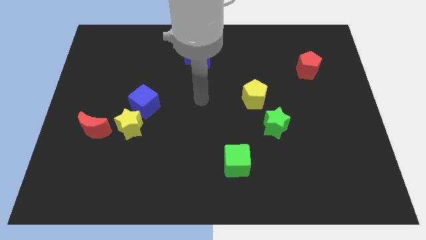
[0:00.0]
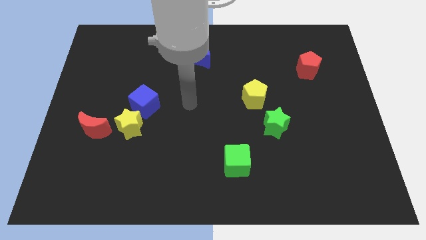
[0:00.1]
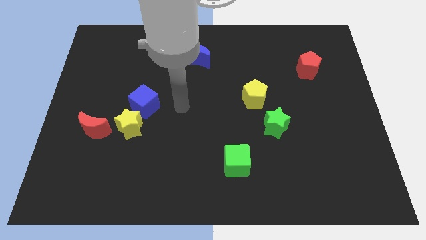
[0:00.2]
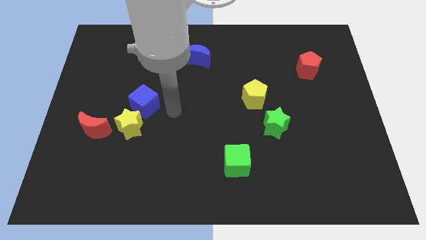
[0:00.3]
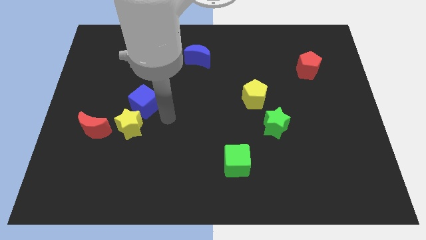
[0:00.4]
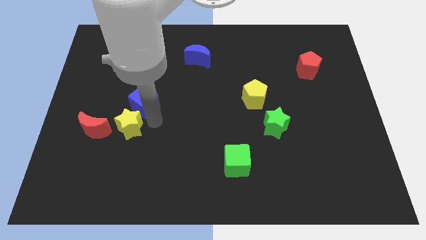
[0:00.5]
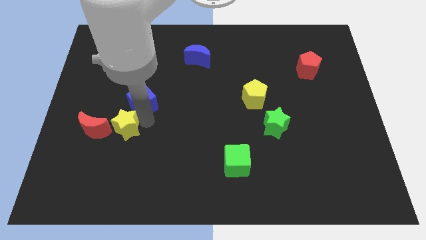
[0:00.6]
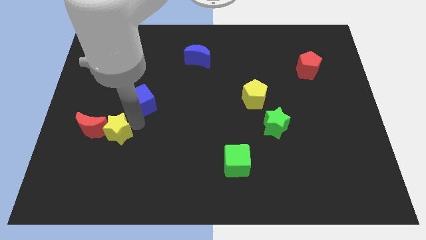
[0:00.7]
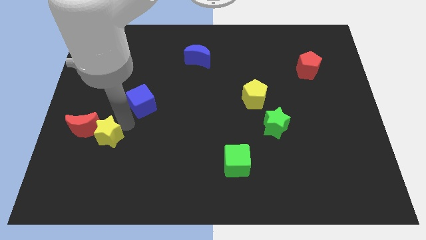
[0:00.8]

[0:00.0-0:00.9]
pull the blue cube apart from the yellow star

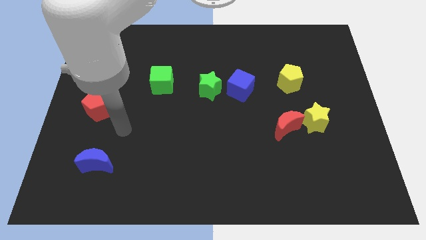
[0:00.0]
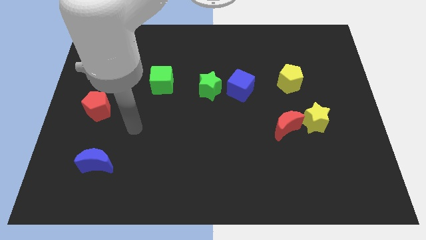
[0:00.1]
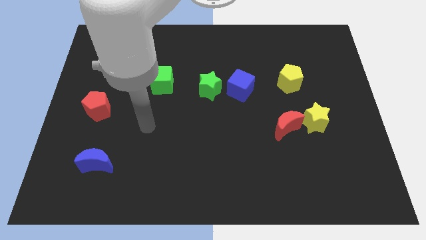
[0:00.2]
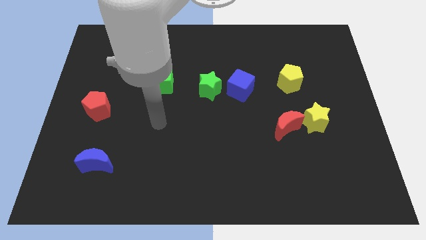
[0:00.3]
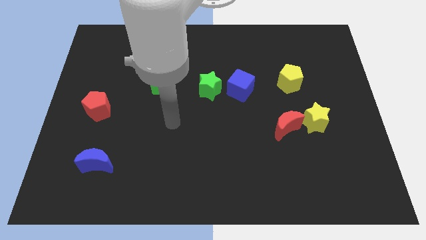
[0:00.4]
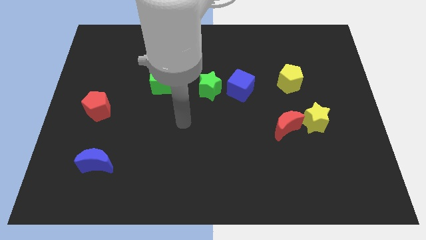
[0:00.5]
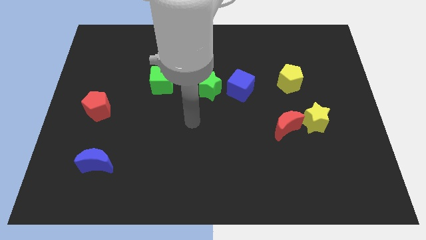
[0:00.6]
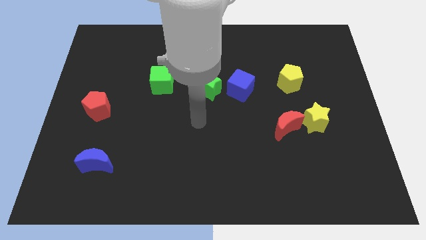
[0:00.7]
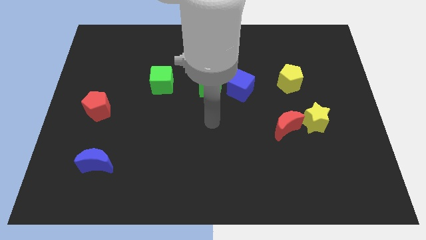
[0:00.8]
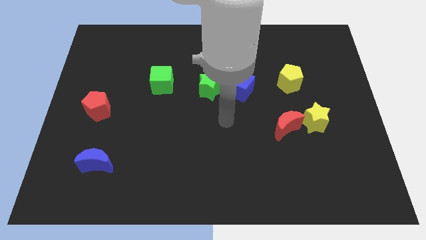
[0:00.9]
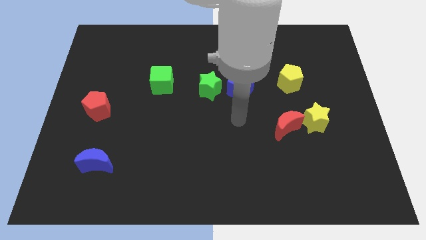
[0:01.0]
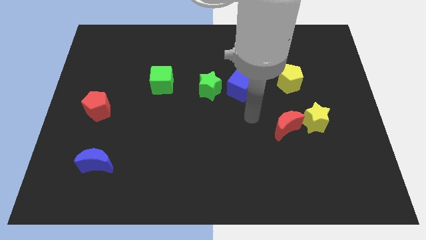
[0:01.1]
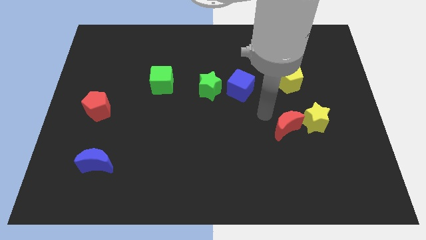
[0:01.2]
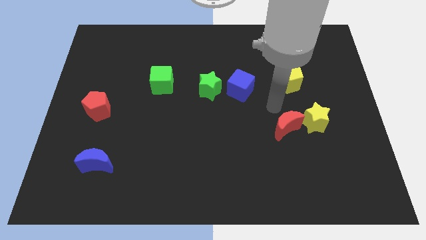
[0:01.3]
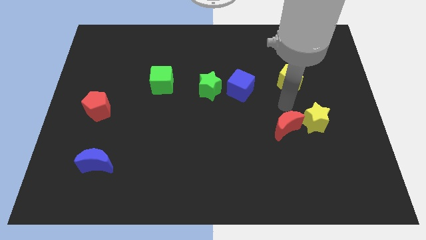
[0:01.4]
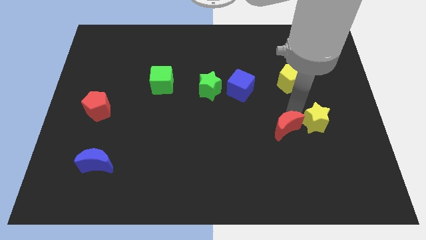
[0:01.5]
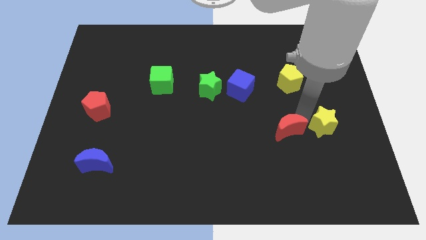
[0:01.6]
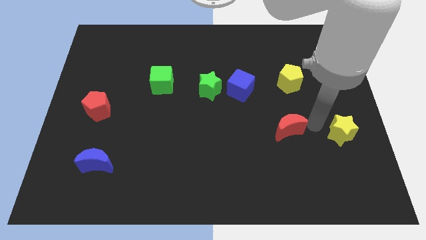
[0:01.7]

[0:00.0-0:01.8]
pull the red moon apart from the yellow star

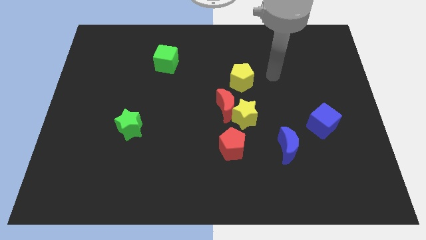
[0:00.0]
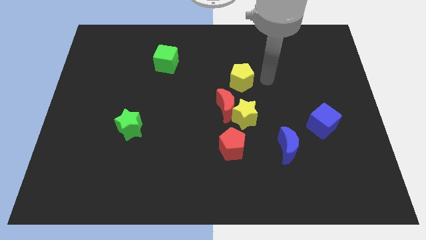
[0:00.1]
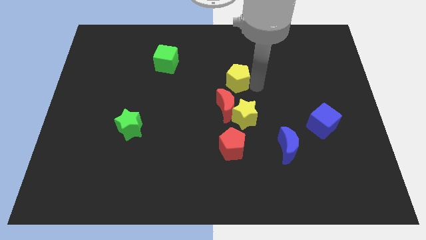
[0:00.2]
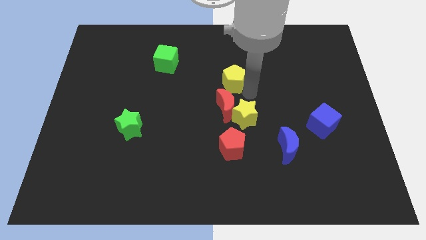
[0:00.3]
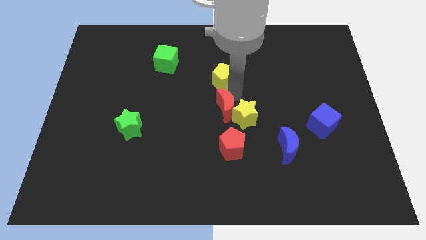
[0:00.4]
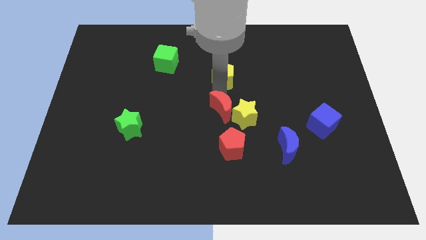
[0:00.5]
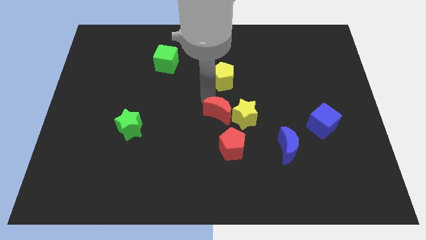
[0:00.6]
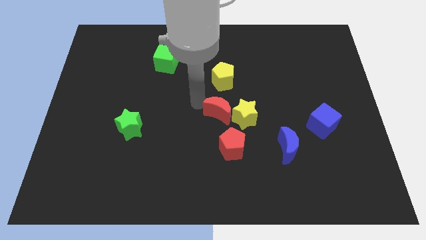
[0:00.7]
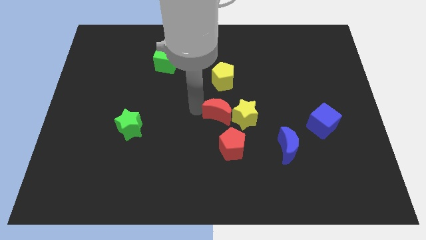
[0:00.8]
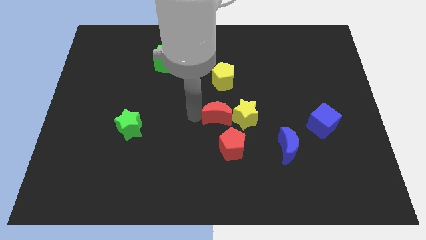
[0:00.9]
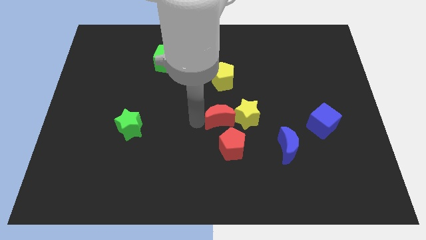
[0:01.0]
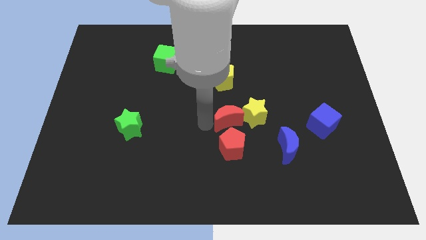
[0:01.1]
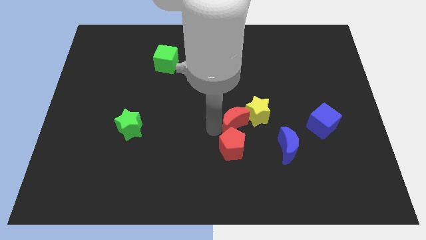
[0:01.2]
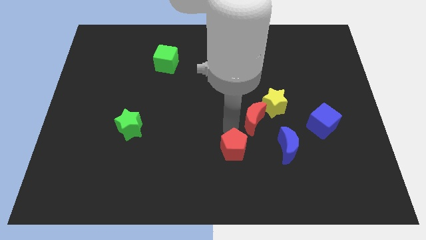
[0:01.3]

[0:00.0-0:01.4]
separate the yellow star from the red moon and red pentagon

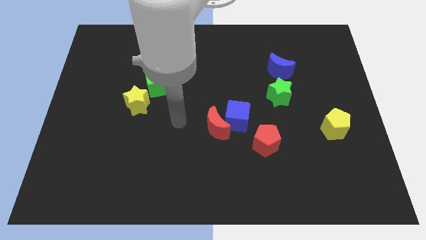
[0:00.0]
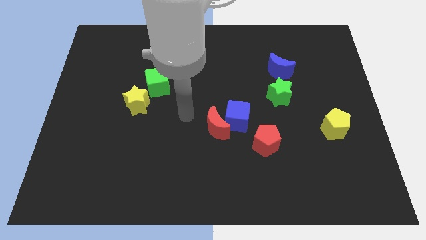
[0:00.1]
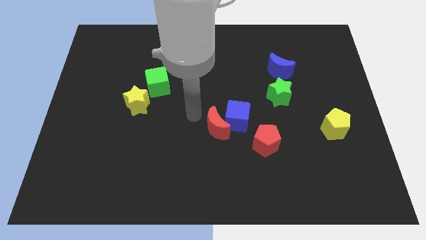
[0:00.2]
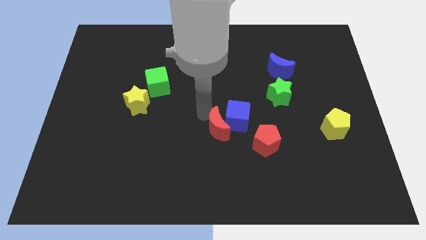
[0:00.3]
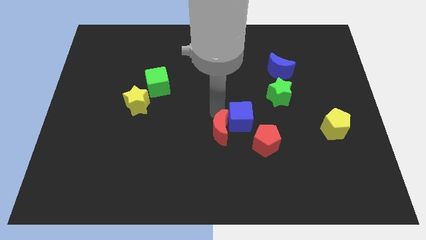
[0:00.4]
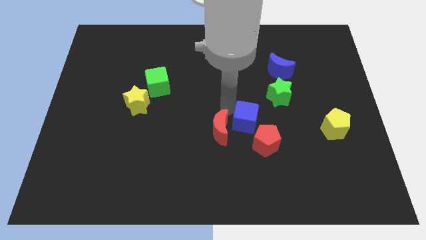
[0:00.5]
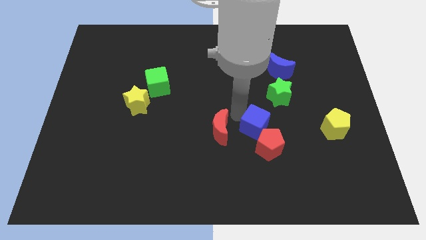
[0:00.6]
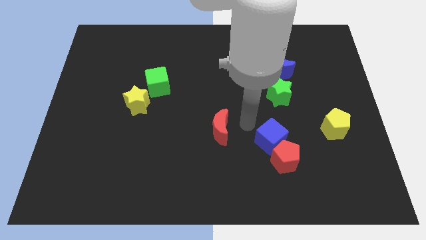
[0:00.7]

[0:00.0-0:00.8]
separate the red moon from the blue cube

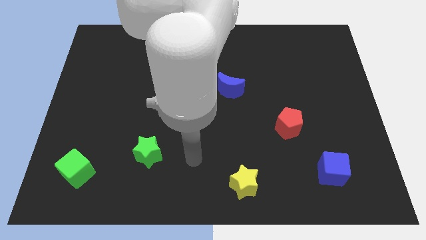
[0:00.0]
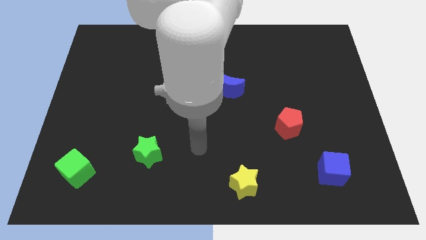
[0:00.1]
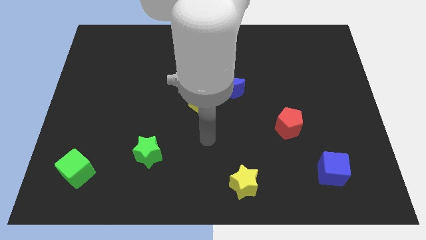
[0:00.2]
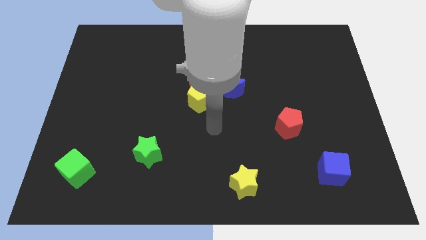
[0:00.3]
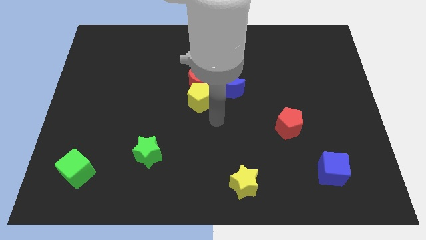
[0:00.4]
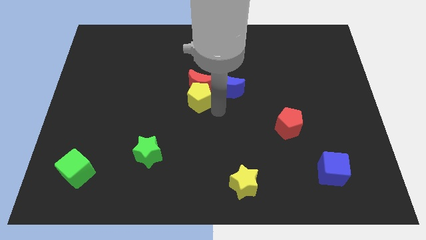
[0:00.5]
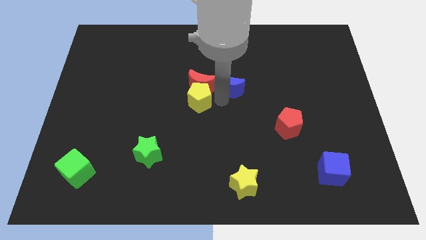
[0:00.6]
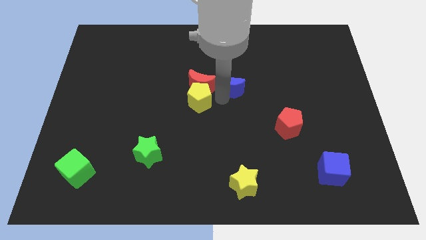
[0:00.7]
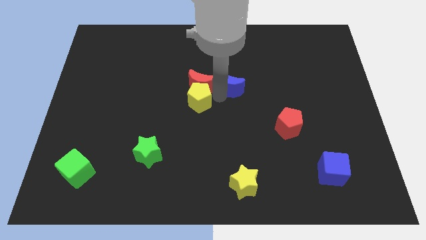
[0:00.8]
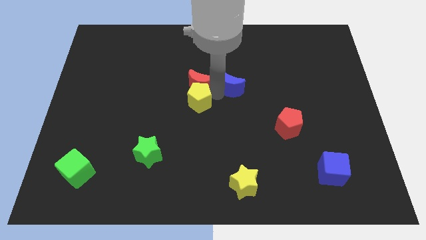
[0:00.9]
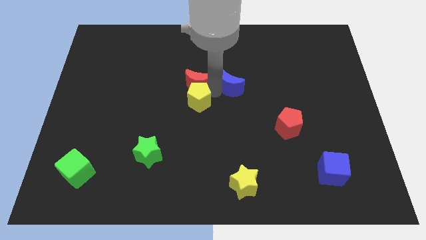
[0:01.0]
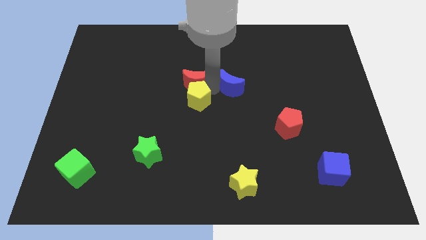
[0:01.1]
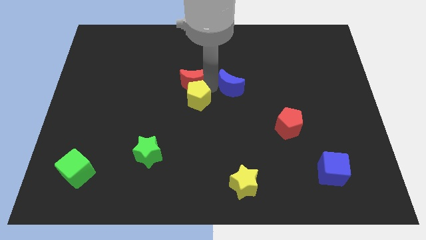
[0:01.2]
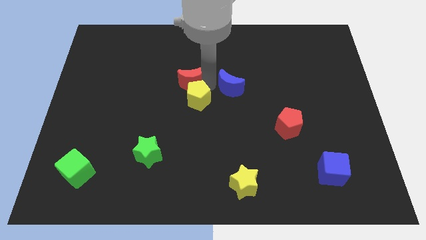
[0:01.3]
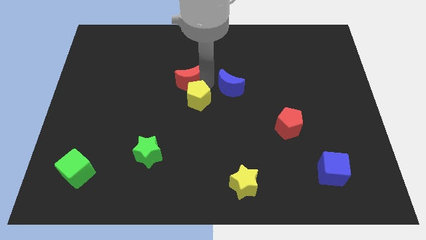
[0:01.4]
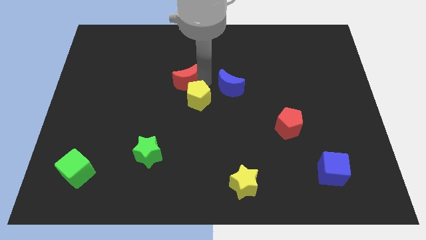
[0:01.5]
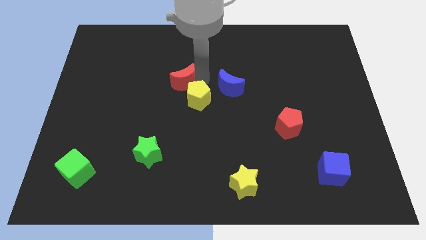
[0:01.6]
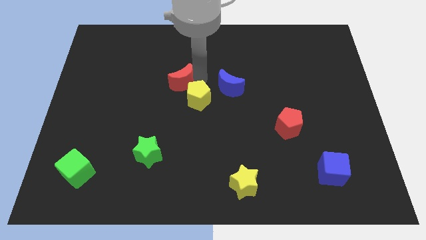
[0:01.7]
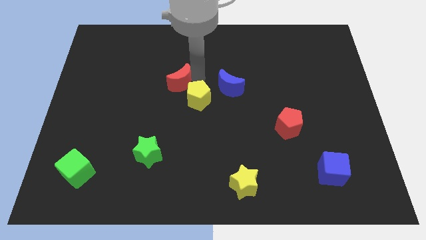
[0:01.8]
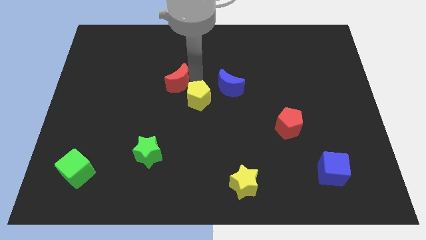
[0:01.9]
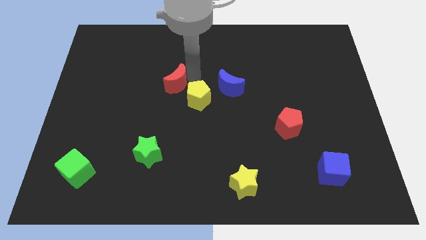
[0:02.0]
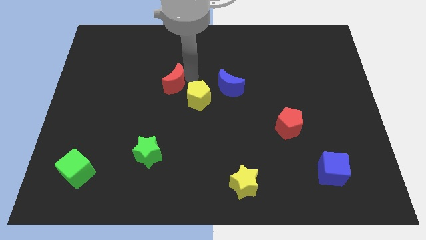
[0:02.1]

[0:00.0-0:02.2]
move the red moon away from the yellow pentagon and blue moon

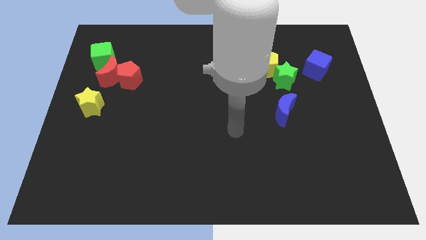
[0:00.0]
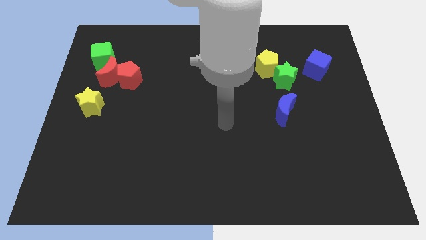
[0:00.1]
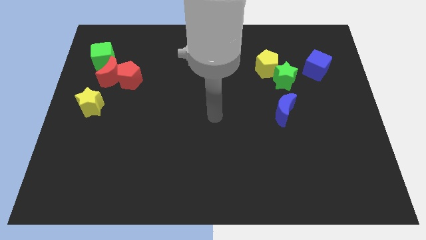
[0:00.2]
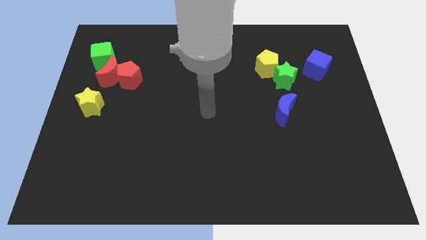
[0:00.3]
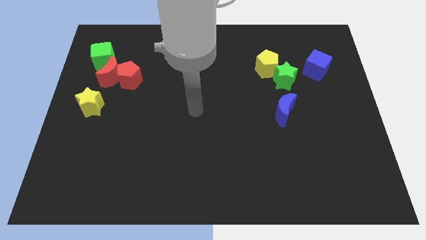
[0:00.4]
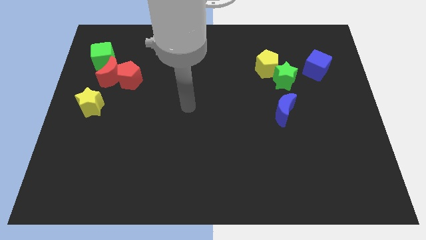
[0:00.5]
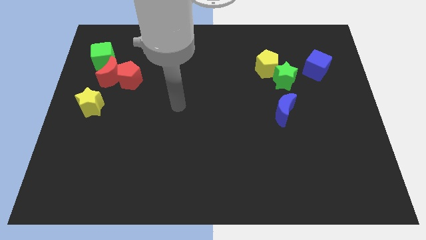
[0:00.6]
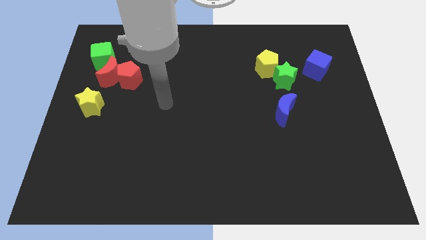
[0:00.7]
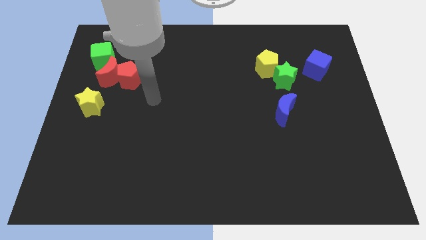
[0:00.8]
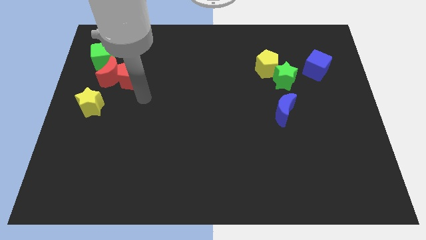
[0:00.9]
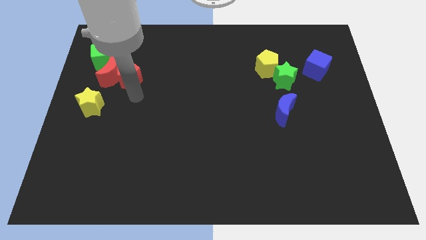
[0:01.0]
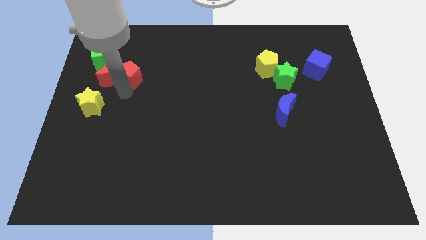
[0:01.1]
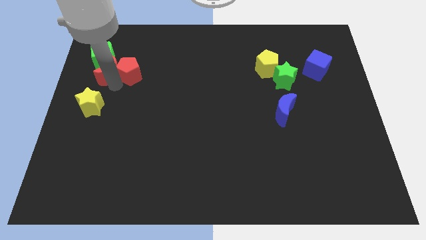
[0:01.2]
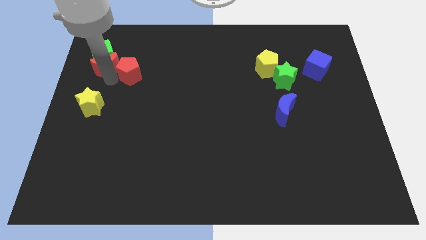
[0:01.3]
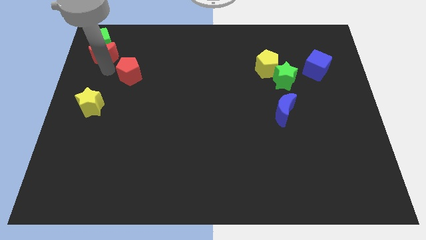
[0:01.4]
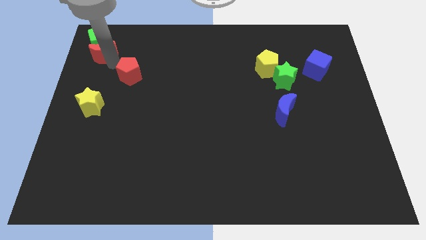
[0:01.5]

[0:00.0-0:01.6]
separate the red pentagon from the red moon

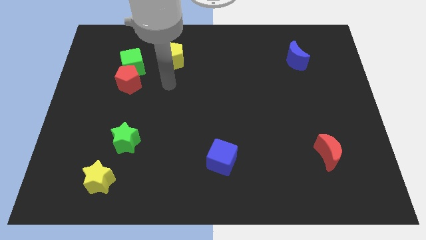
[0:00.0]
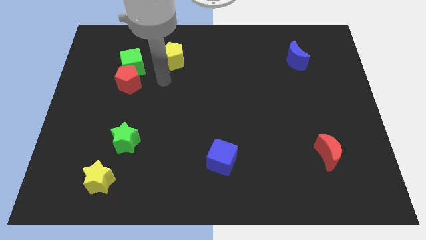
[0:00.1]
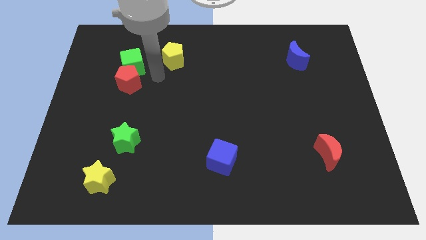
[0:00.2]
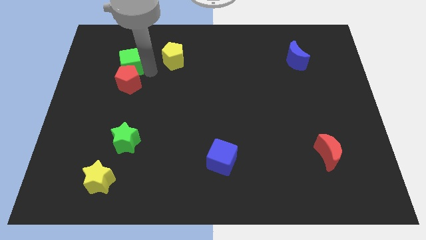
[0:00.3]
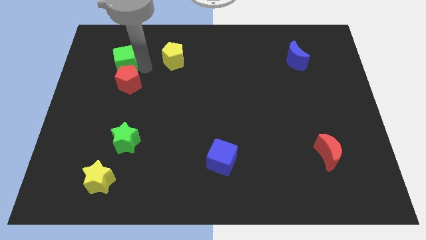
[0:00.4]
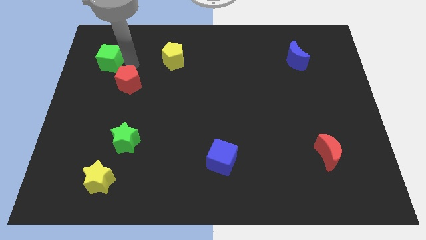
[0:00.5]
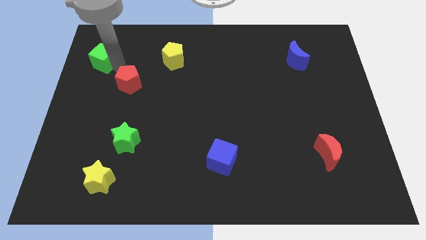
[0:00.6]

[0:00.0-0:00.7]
move the red pentagon away from the green cube
